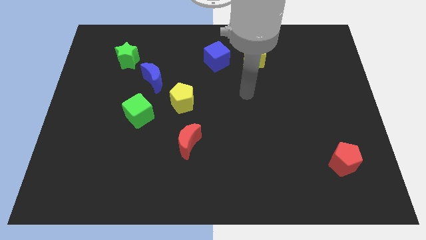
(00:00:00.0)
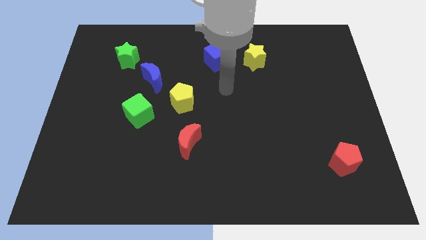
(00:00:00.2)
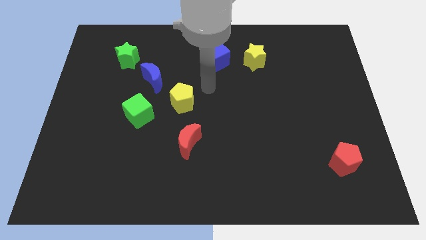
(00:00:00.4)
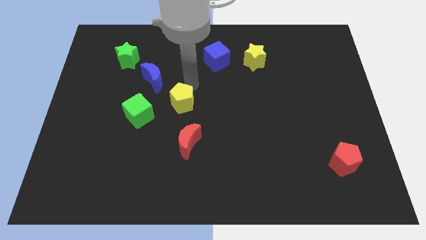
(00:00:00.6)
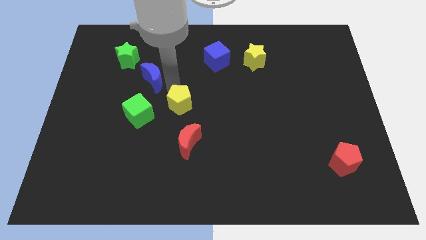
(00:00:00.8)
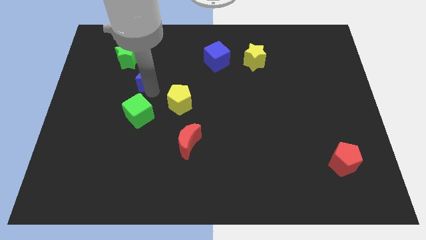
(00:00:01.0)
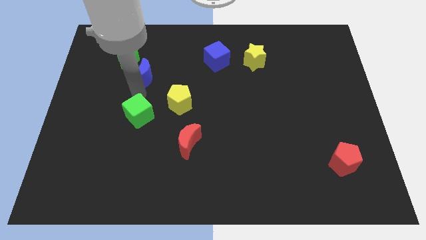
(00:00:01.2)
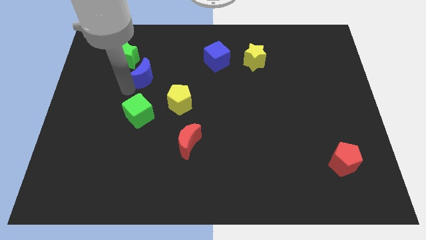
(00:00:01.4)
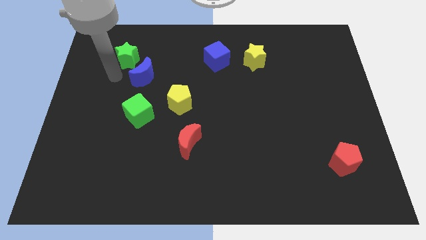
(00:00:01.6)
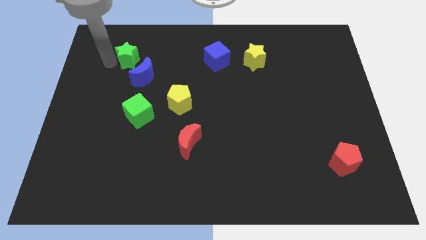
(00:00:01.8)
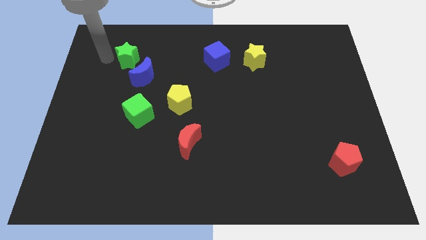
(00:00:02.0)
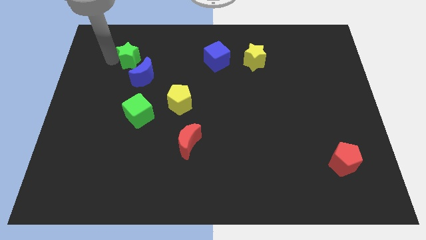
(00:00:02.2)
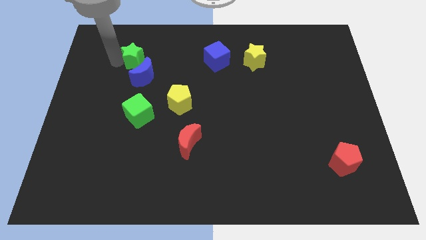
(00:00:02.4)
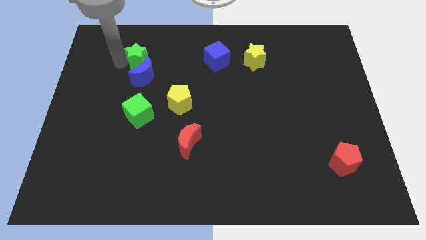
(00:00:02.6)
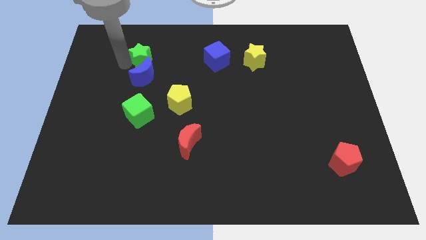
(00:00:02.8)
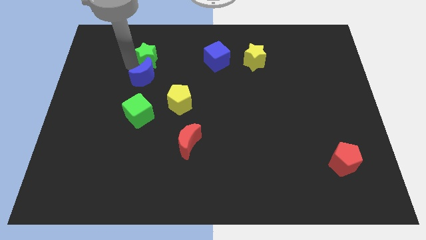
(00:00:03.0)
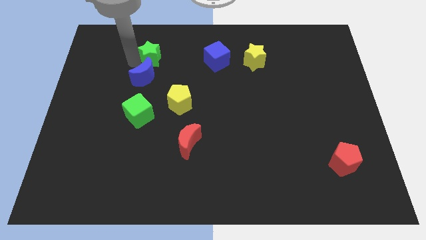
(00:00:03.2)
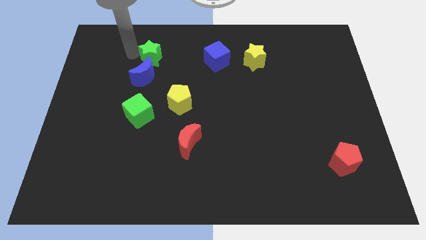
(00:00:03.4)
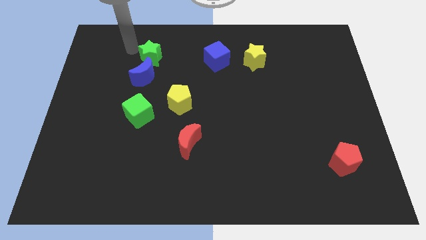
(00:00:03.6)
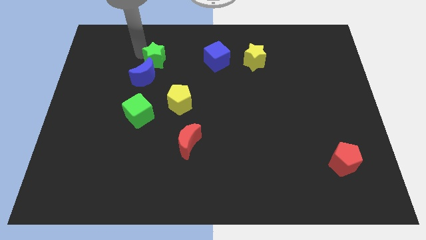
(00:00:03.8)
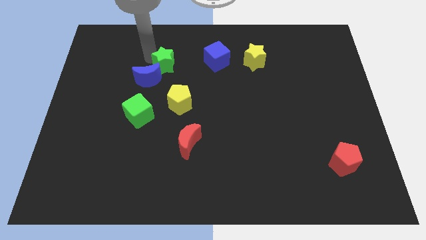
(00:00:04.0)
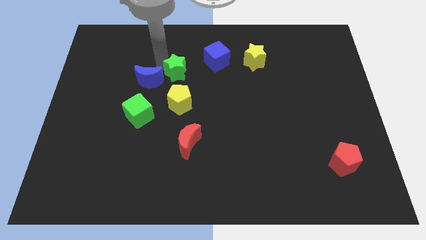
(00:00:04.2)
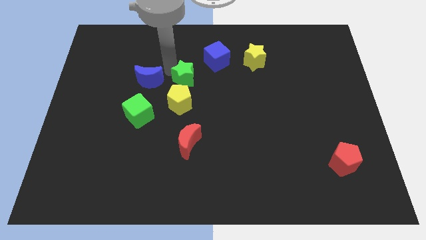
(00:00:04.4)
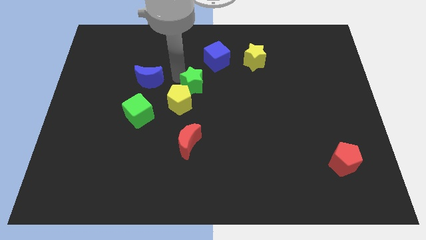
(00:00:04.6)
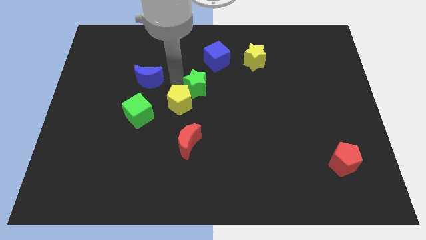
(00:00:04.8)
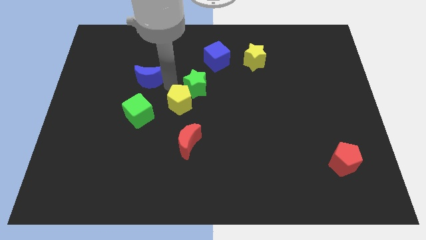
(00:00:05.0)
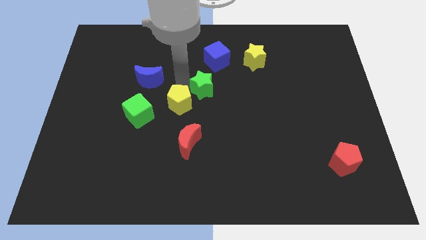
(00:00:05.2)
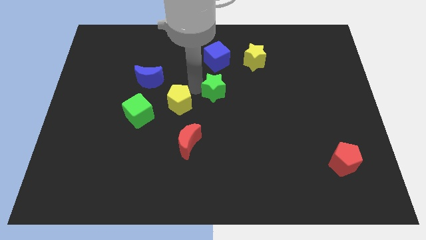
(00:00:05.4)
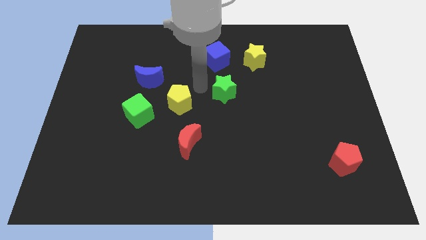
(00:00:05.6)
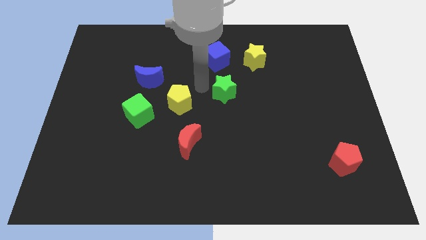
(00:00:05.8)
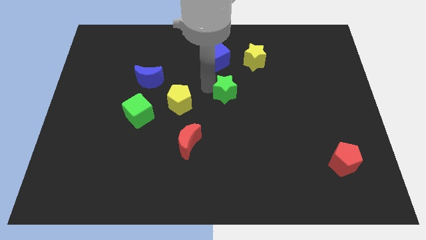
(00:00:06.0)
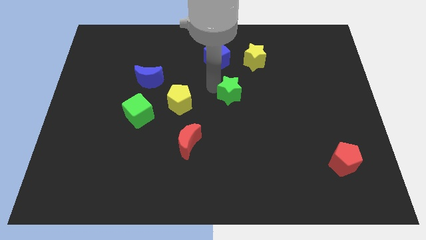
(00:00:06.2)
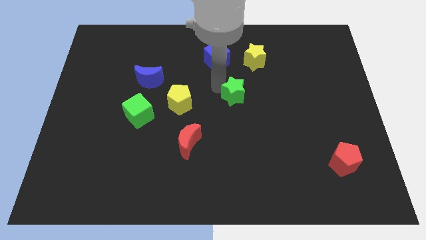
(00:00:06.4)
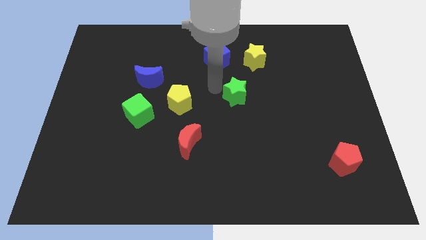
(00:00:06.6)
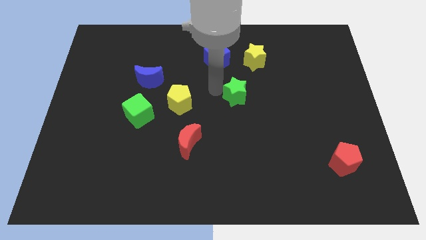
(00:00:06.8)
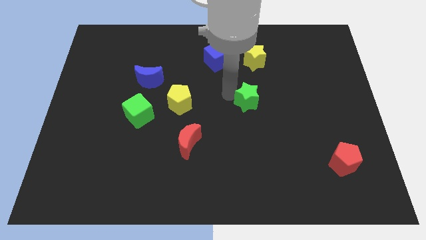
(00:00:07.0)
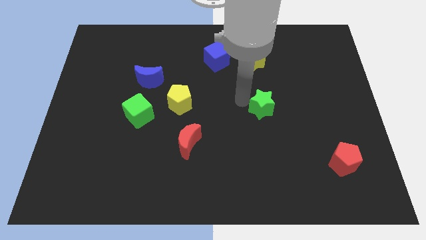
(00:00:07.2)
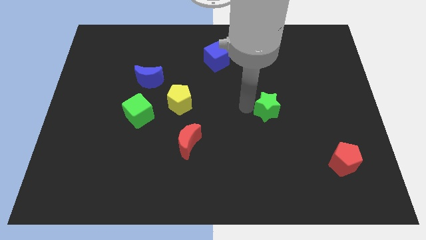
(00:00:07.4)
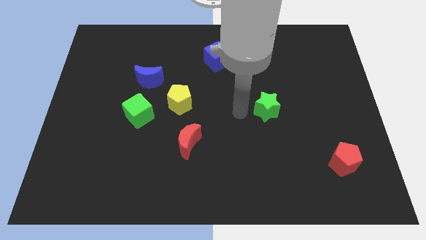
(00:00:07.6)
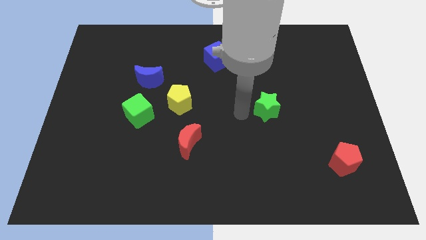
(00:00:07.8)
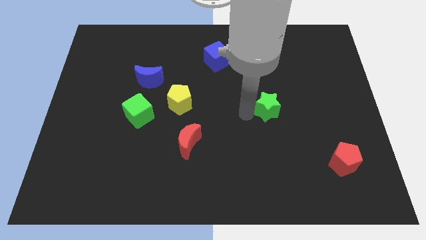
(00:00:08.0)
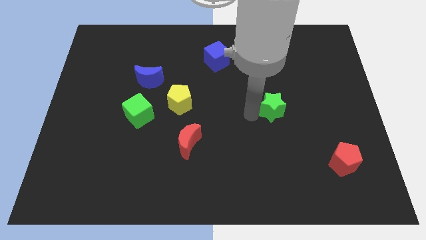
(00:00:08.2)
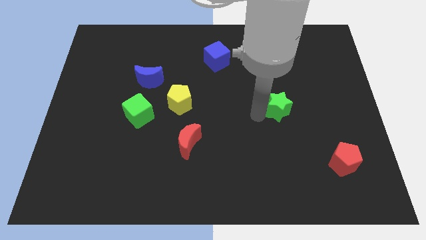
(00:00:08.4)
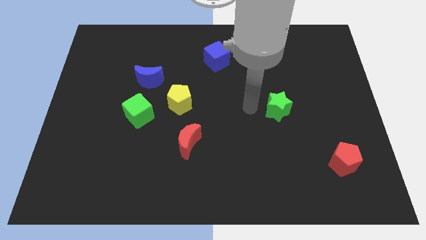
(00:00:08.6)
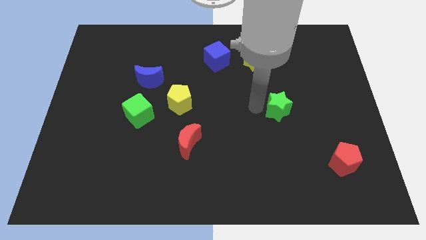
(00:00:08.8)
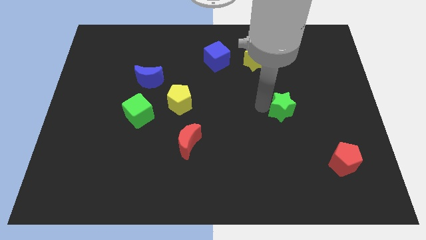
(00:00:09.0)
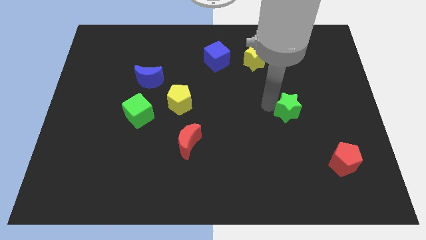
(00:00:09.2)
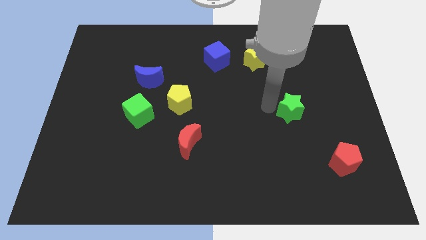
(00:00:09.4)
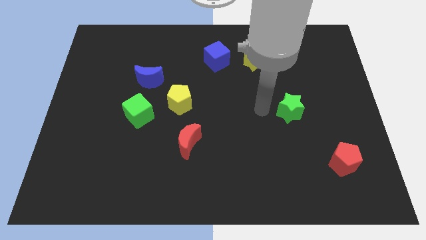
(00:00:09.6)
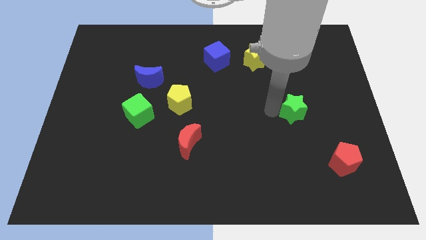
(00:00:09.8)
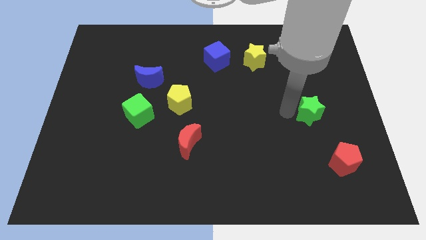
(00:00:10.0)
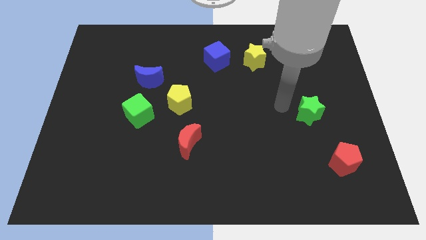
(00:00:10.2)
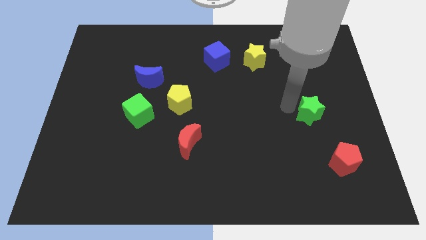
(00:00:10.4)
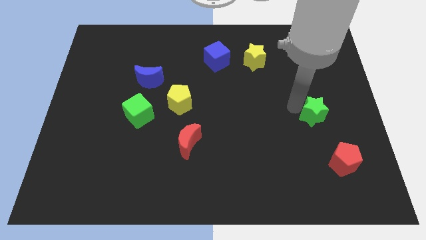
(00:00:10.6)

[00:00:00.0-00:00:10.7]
move the green star to the top side of the red pentagon
